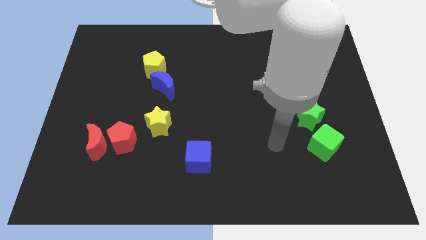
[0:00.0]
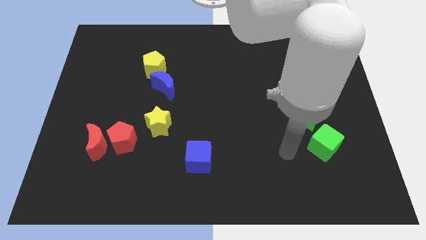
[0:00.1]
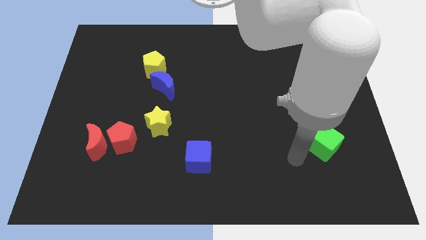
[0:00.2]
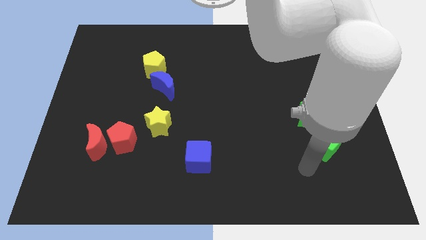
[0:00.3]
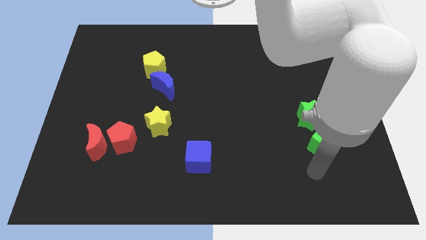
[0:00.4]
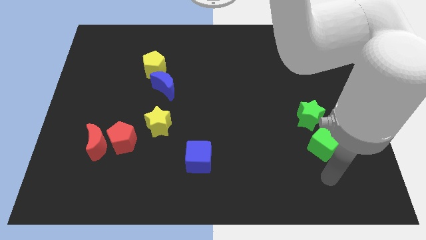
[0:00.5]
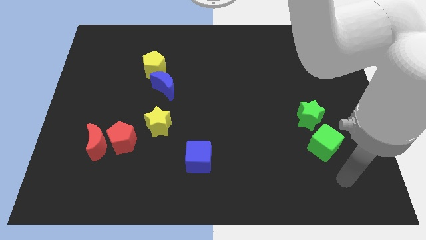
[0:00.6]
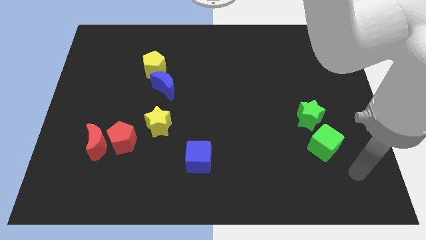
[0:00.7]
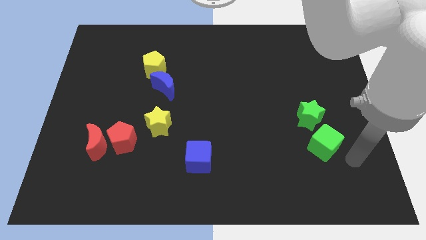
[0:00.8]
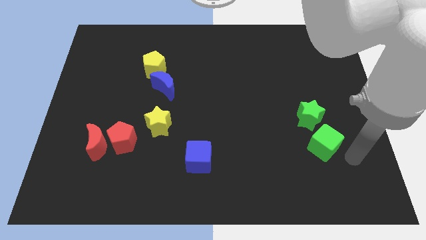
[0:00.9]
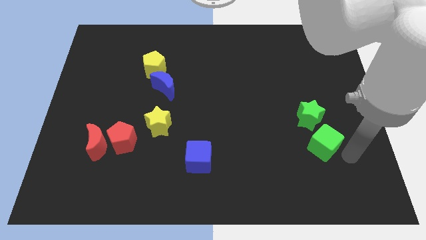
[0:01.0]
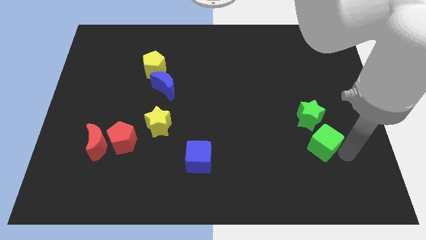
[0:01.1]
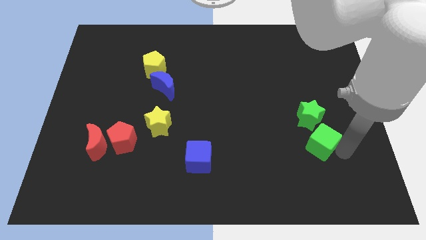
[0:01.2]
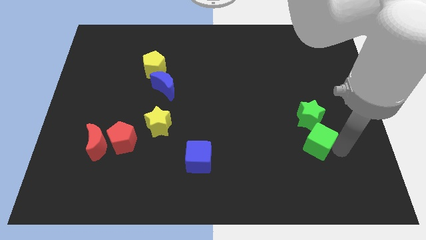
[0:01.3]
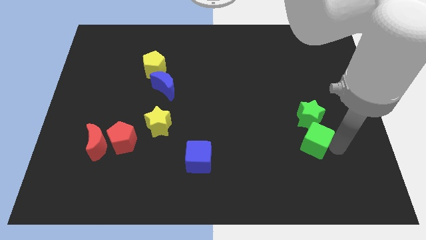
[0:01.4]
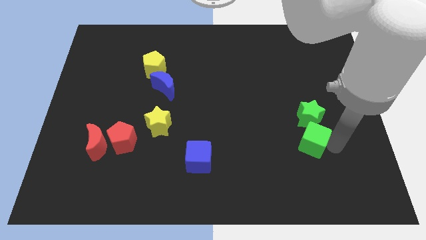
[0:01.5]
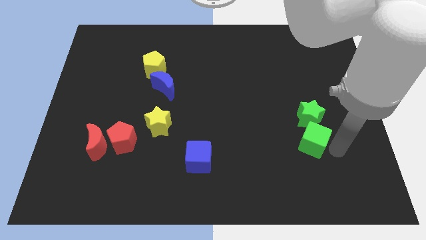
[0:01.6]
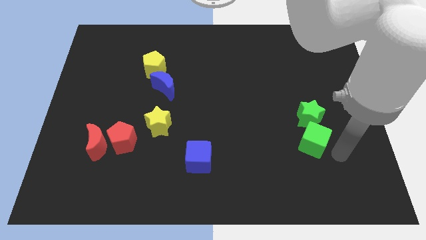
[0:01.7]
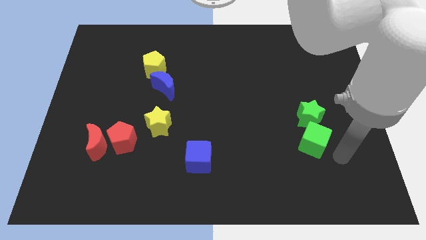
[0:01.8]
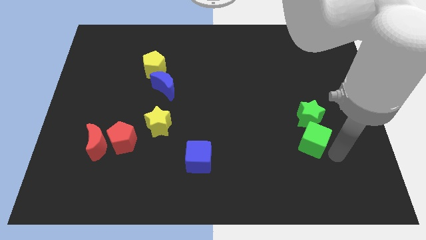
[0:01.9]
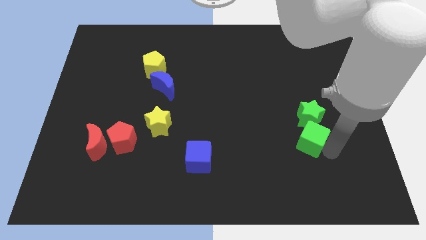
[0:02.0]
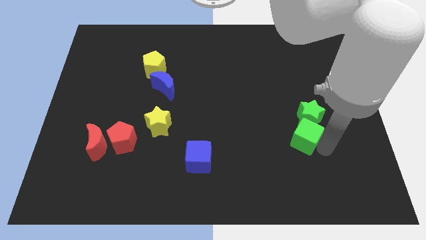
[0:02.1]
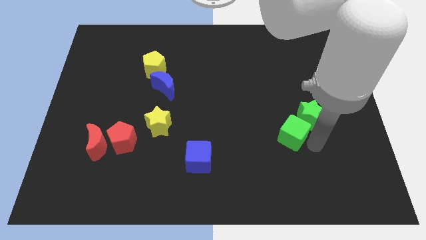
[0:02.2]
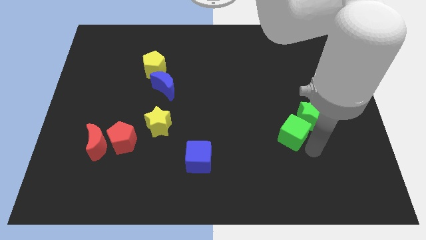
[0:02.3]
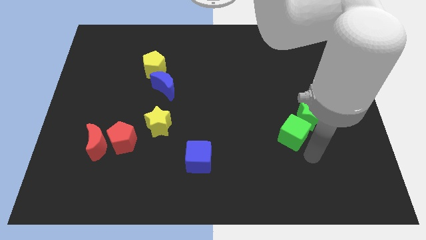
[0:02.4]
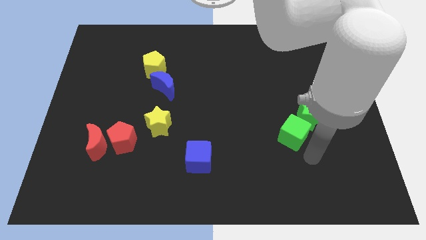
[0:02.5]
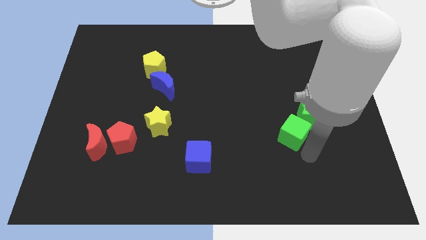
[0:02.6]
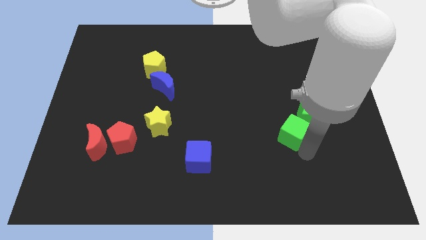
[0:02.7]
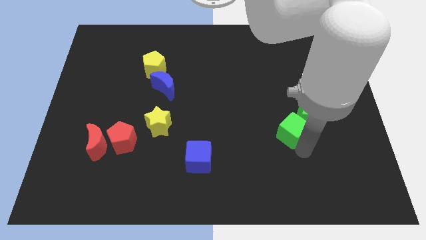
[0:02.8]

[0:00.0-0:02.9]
slightly push the green cube diagonally up and left

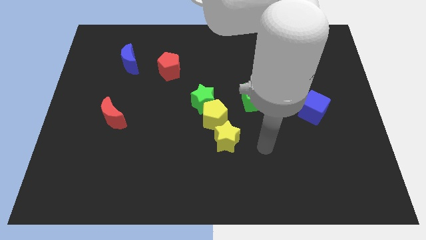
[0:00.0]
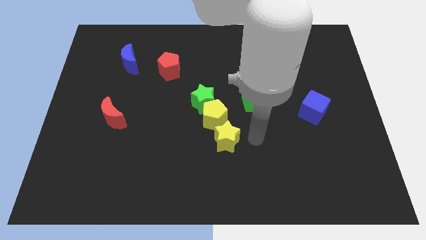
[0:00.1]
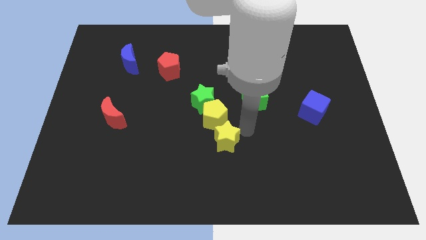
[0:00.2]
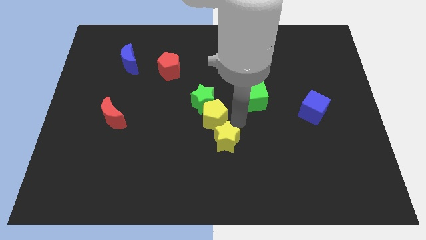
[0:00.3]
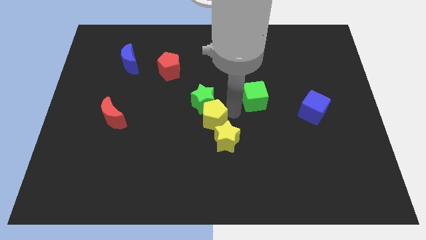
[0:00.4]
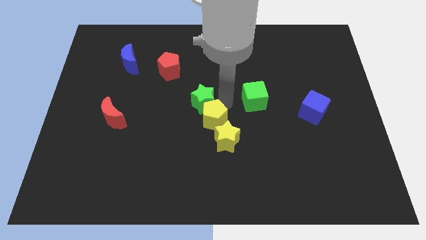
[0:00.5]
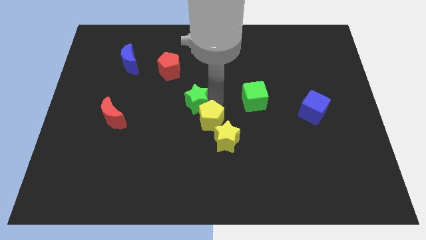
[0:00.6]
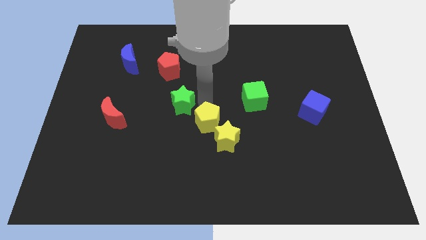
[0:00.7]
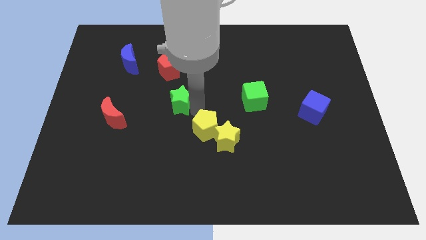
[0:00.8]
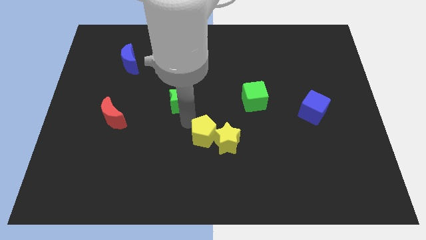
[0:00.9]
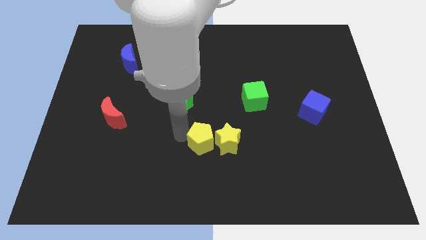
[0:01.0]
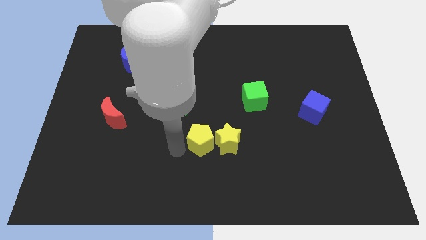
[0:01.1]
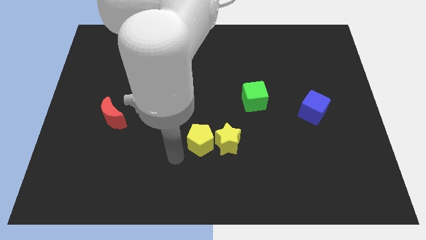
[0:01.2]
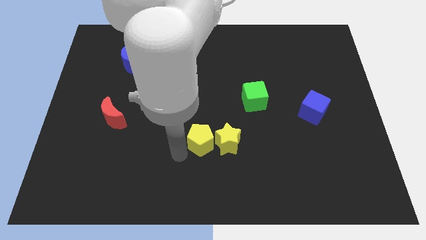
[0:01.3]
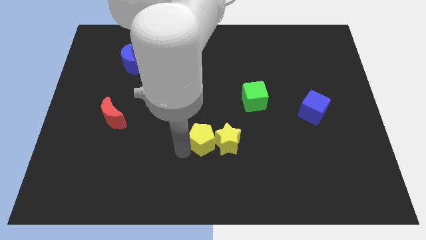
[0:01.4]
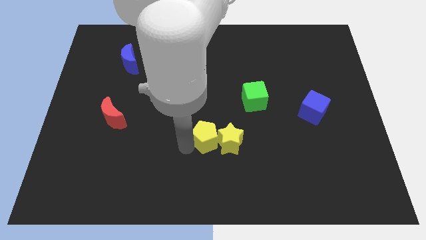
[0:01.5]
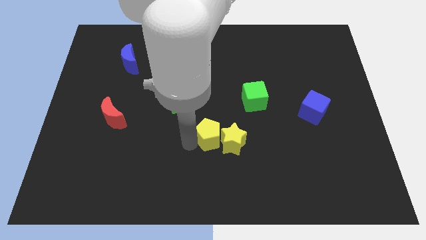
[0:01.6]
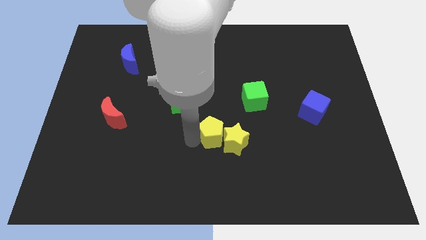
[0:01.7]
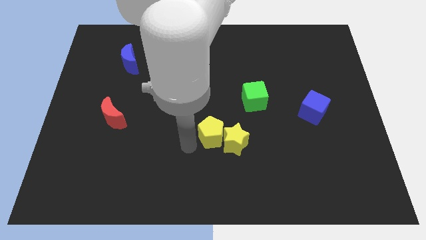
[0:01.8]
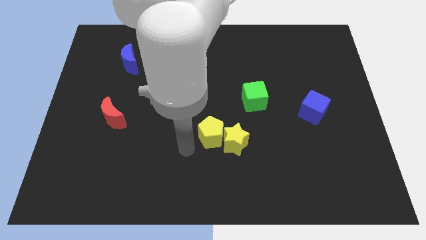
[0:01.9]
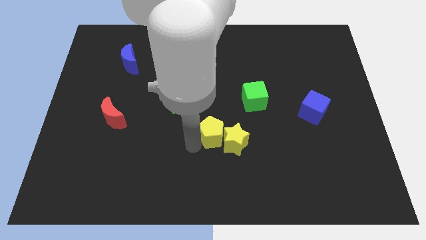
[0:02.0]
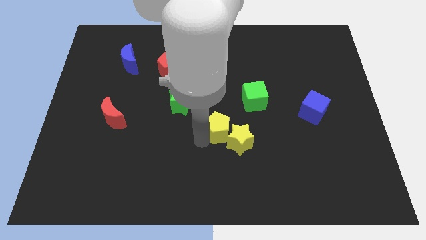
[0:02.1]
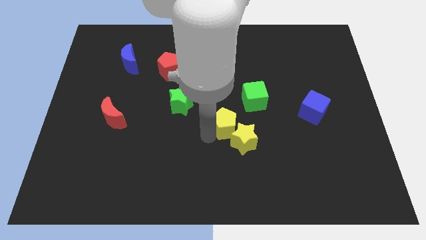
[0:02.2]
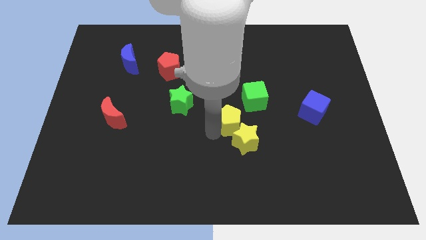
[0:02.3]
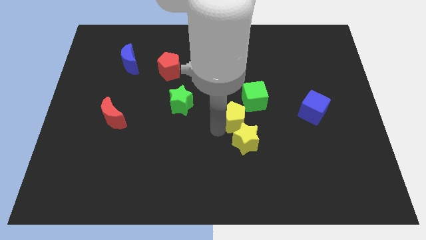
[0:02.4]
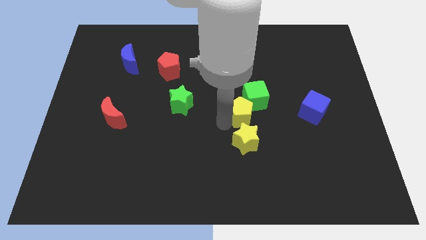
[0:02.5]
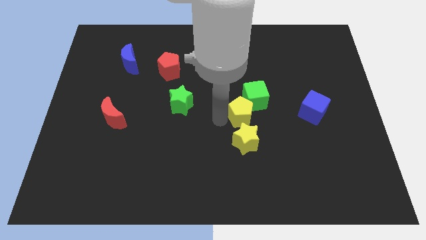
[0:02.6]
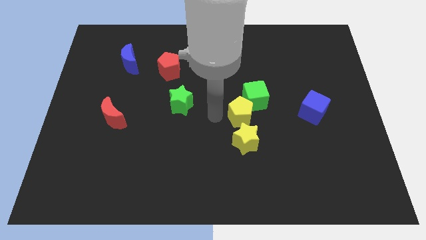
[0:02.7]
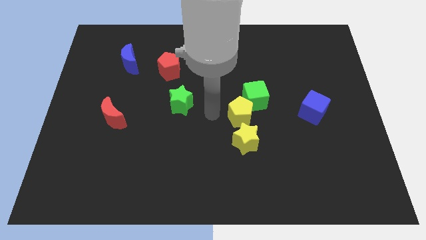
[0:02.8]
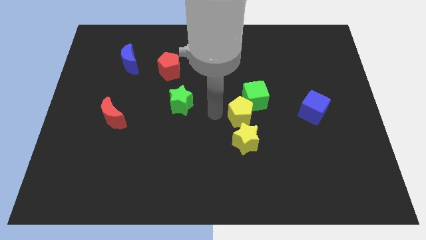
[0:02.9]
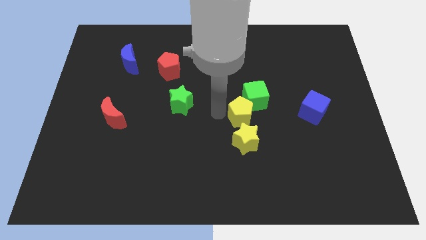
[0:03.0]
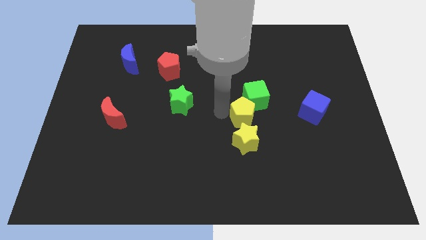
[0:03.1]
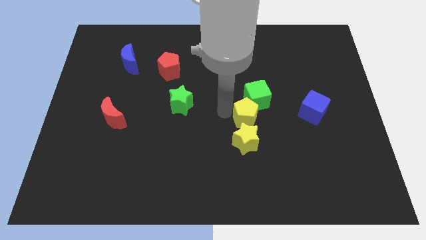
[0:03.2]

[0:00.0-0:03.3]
move the yellow pentagon right somewhat

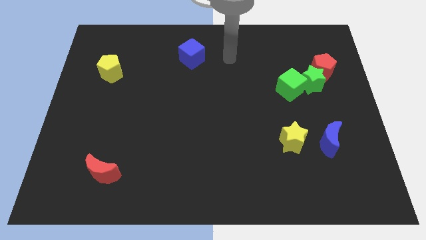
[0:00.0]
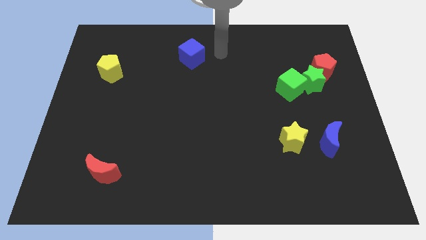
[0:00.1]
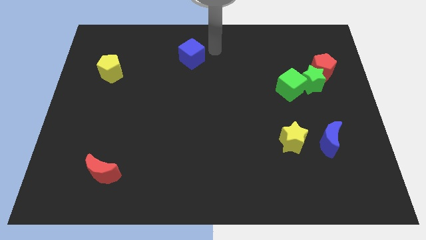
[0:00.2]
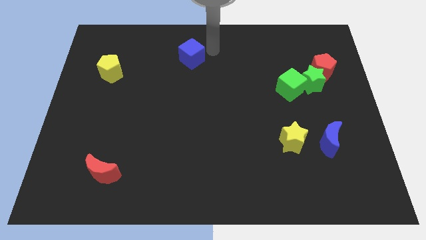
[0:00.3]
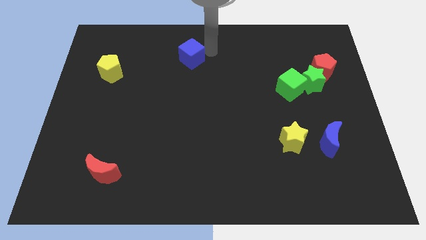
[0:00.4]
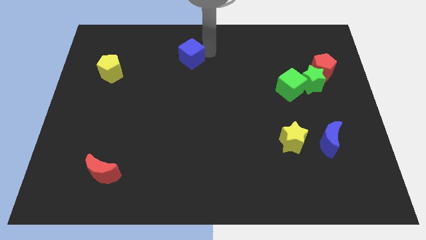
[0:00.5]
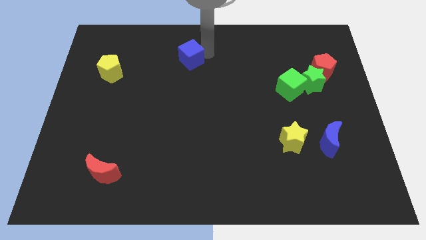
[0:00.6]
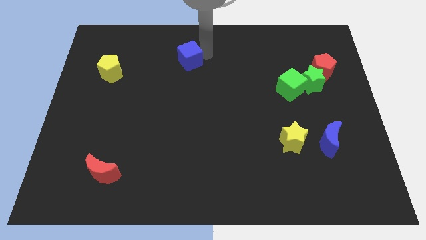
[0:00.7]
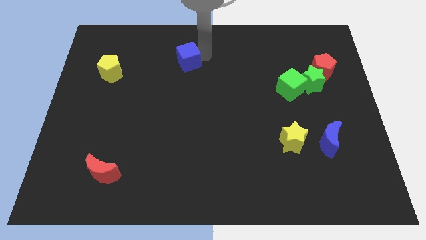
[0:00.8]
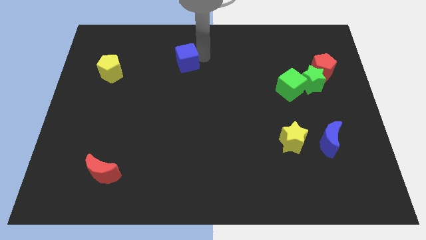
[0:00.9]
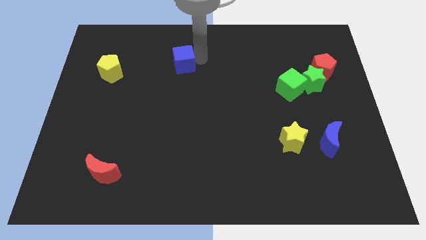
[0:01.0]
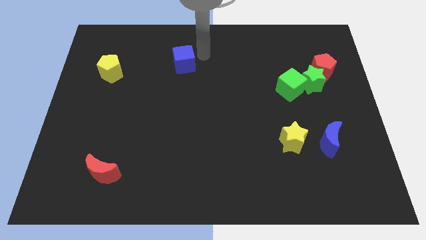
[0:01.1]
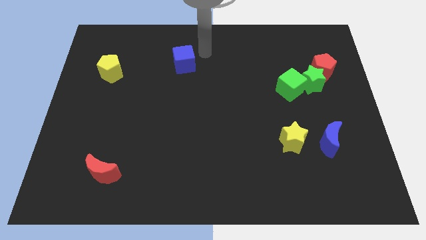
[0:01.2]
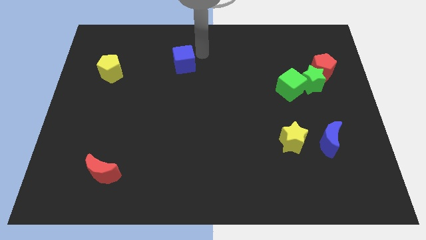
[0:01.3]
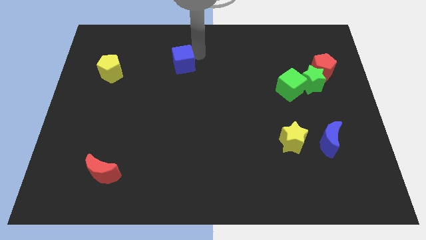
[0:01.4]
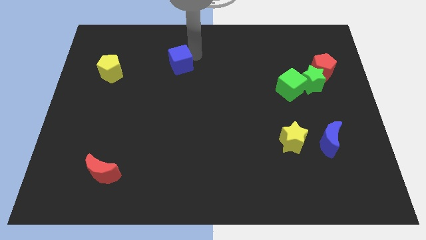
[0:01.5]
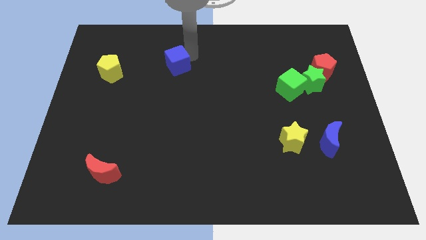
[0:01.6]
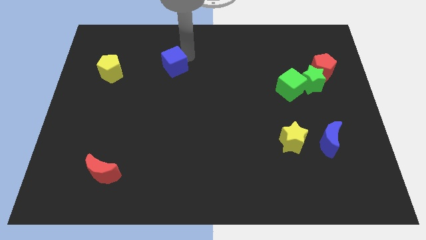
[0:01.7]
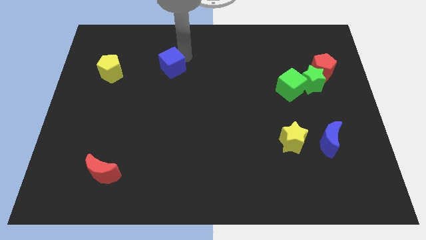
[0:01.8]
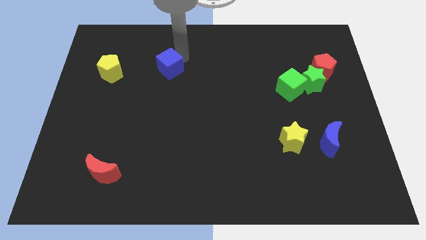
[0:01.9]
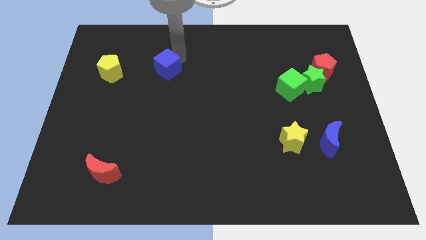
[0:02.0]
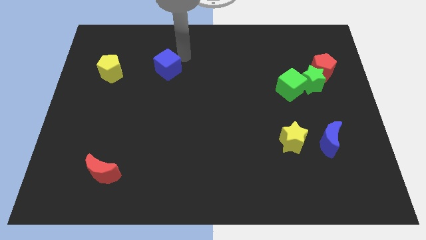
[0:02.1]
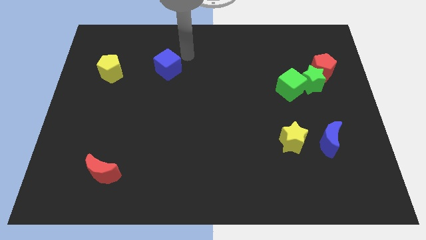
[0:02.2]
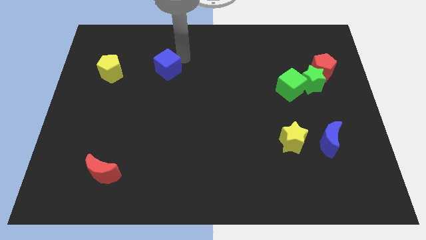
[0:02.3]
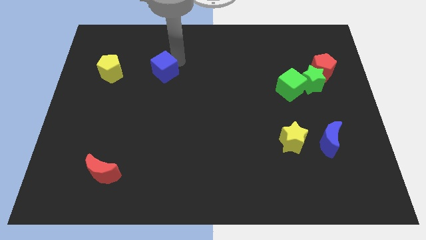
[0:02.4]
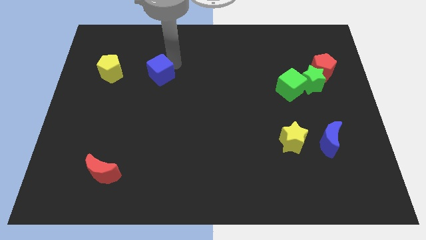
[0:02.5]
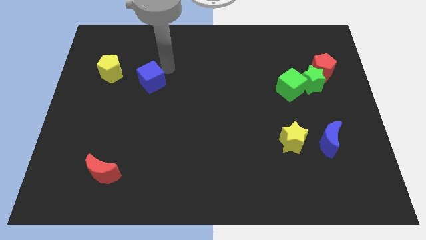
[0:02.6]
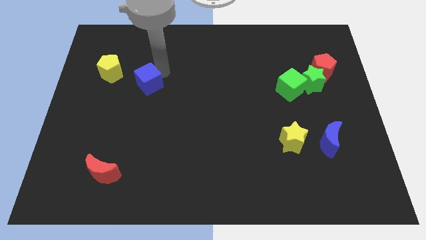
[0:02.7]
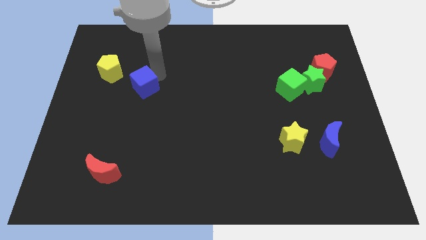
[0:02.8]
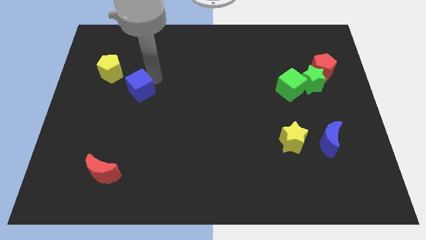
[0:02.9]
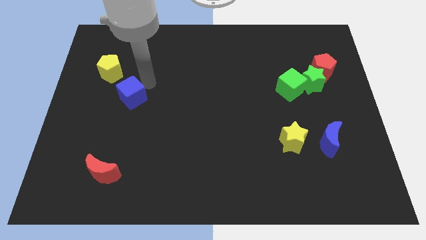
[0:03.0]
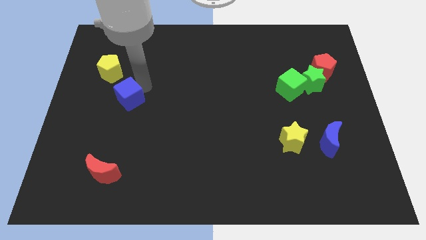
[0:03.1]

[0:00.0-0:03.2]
slide the blue cube down and to the left diagonally
